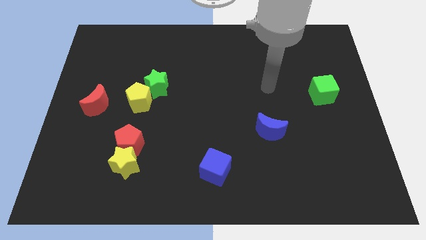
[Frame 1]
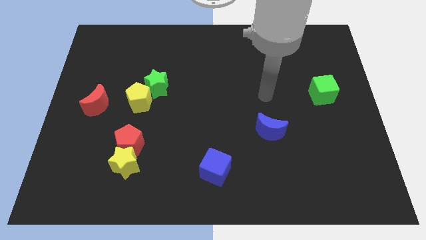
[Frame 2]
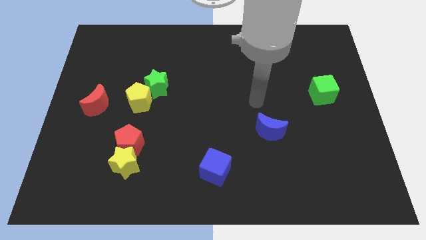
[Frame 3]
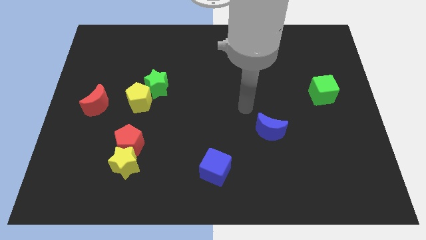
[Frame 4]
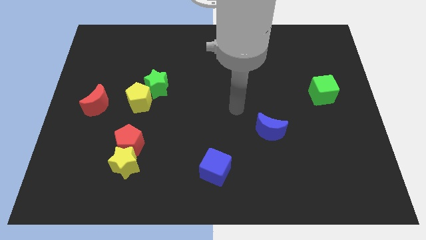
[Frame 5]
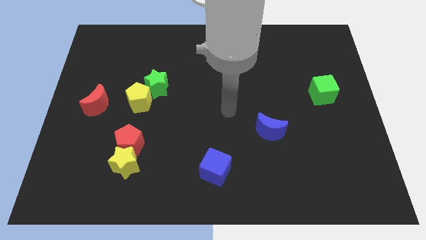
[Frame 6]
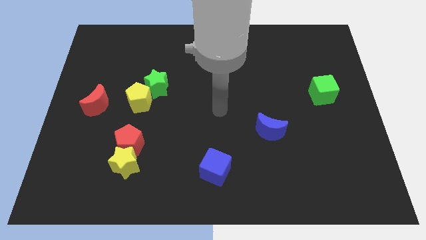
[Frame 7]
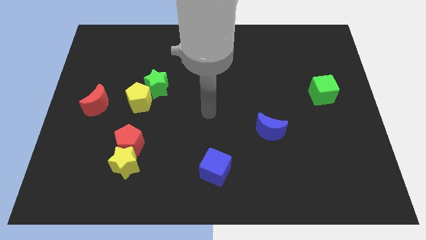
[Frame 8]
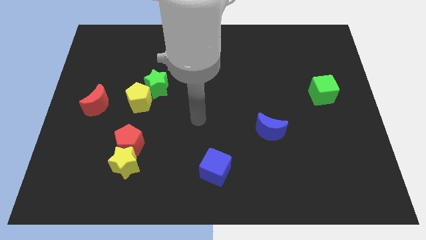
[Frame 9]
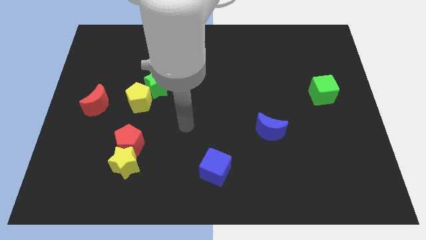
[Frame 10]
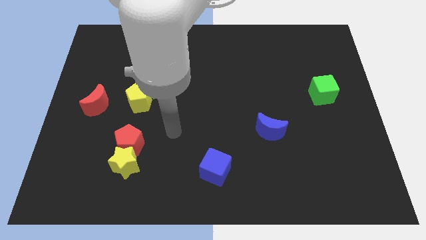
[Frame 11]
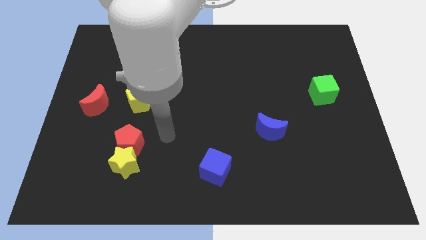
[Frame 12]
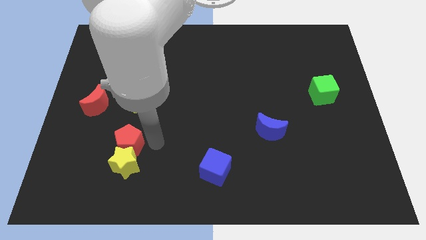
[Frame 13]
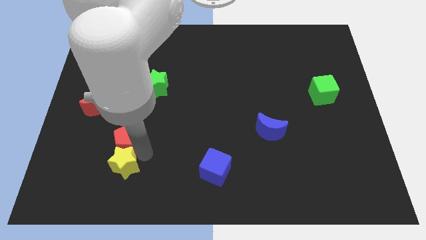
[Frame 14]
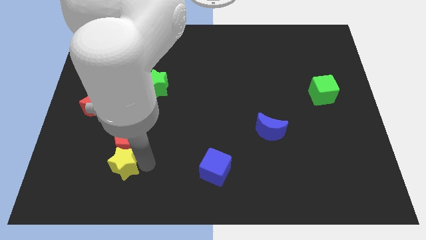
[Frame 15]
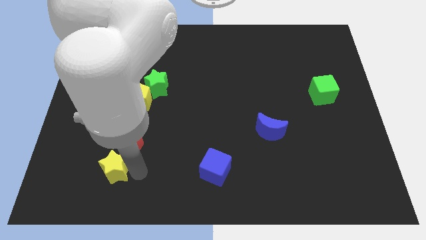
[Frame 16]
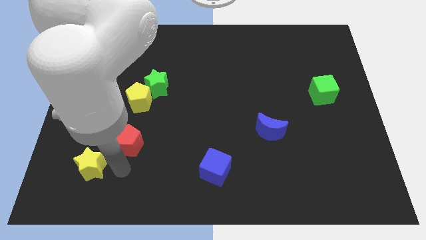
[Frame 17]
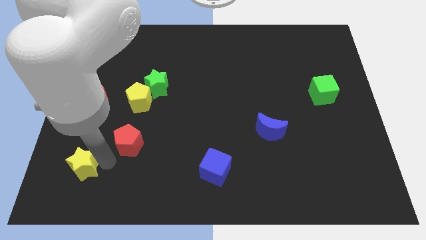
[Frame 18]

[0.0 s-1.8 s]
pull the red pentagon apart from the yellow star

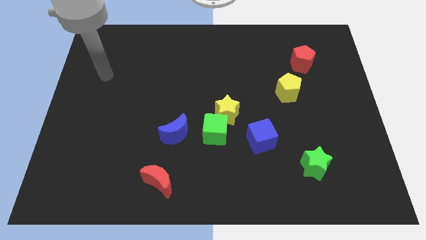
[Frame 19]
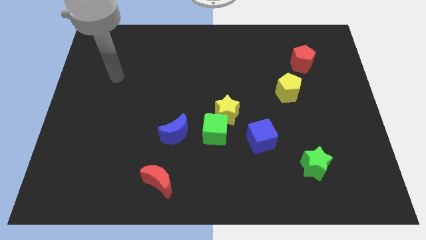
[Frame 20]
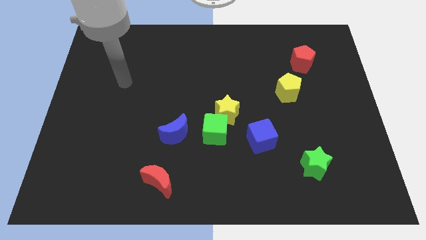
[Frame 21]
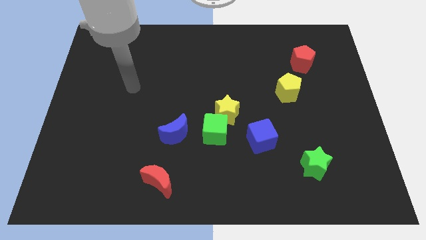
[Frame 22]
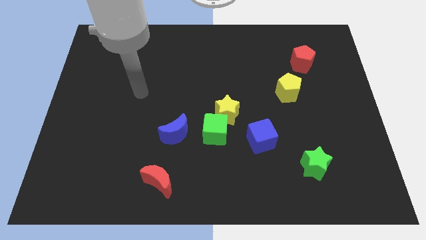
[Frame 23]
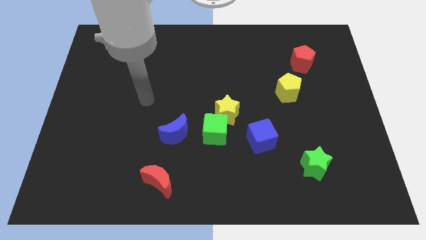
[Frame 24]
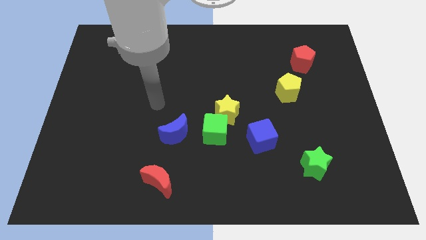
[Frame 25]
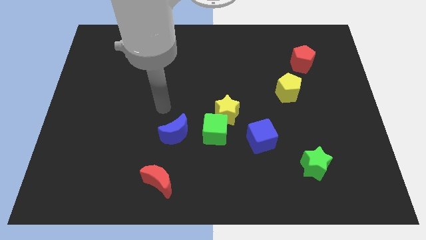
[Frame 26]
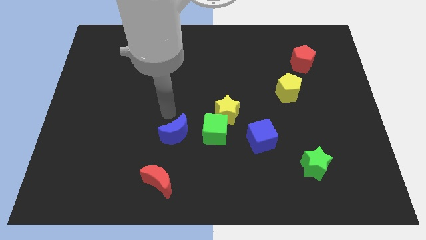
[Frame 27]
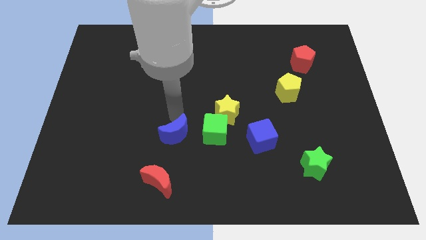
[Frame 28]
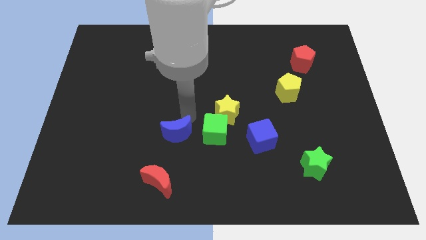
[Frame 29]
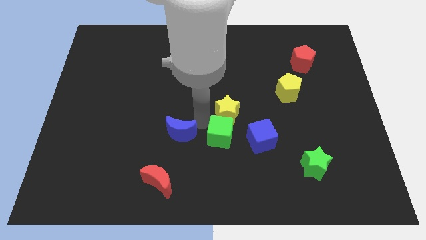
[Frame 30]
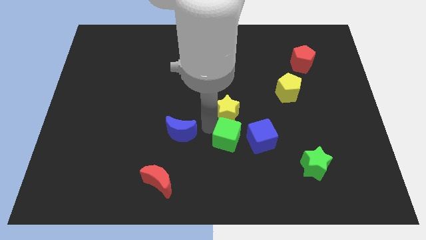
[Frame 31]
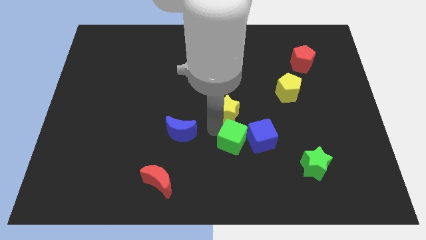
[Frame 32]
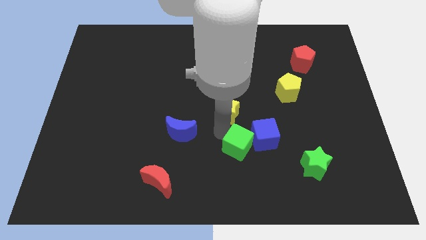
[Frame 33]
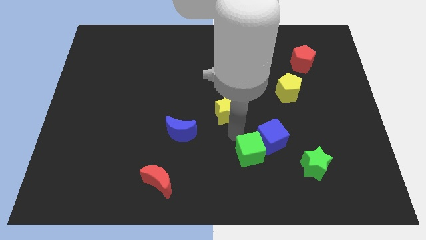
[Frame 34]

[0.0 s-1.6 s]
pull the yellow star apart from the green cube and blue cube

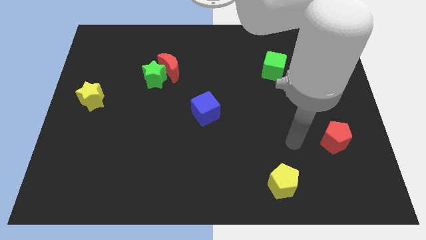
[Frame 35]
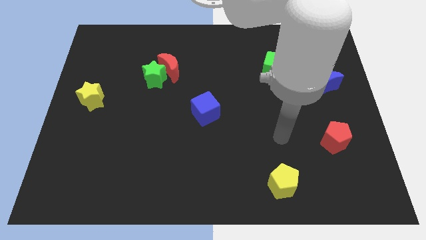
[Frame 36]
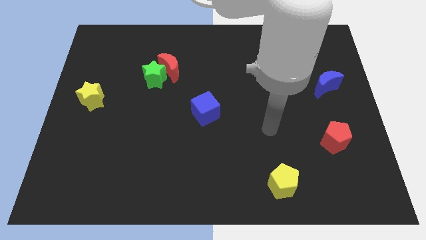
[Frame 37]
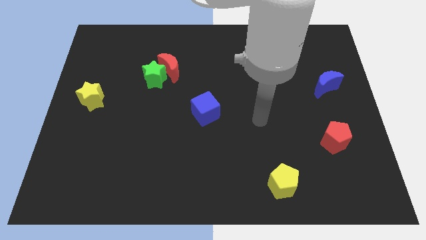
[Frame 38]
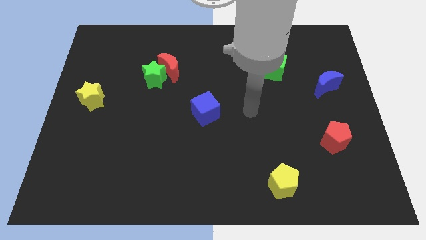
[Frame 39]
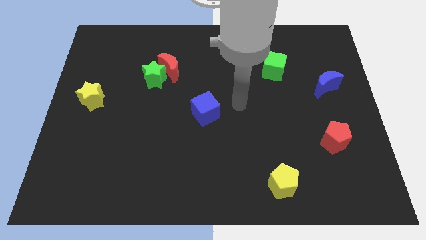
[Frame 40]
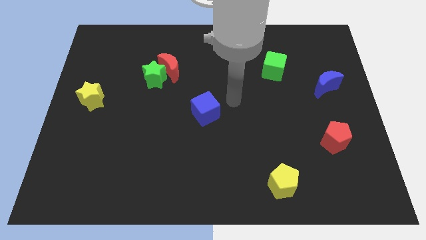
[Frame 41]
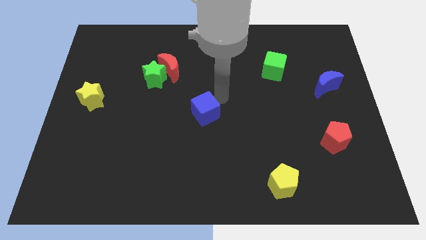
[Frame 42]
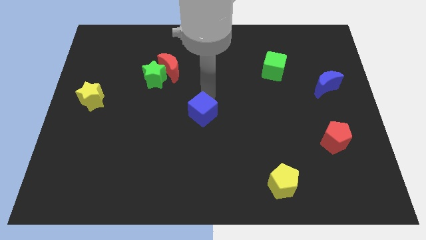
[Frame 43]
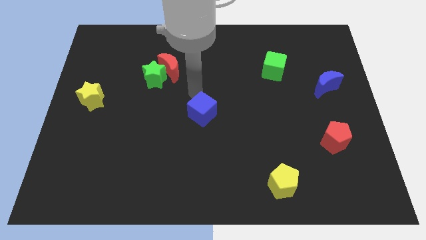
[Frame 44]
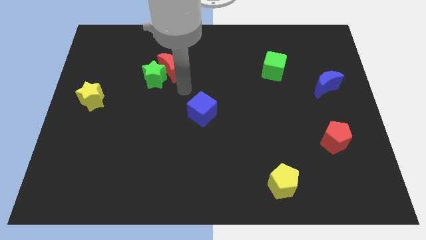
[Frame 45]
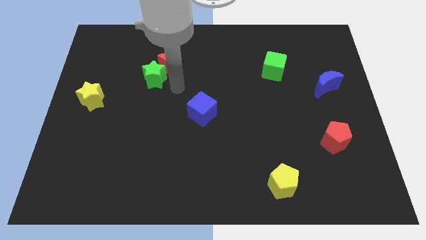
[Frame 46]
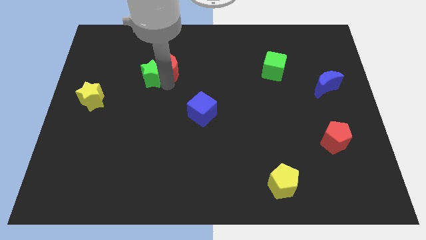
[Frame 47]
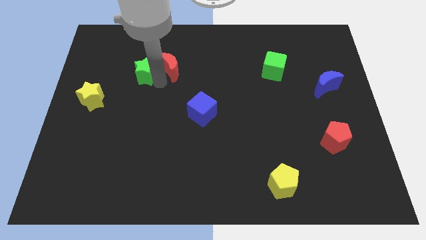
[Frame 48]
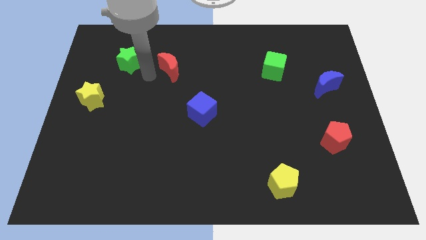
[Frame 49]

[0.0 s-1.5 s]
move the red moon away from the green star

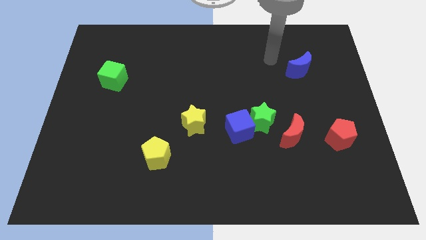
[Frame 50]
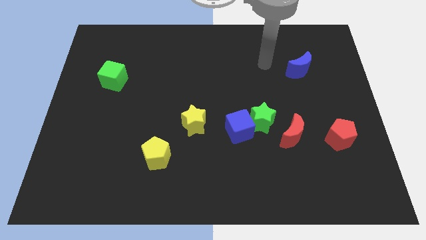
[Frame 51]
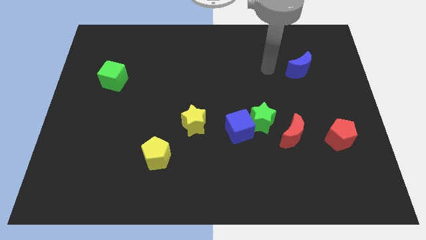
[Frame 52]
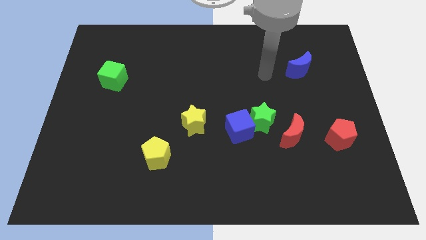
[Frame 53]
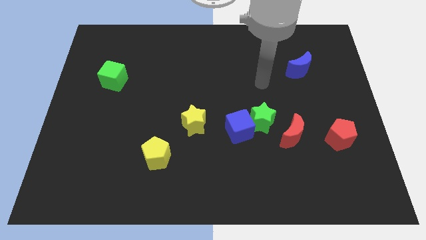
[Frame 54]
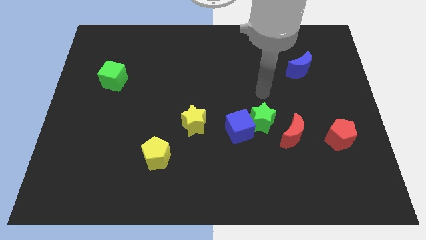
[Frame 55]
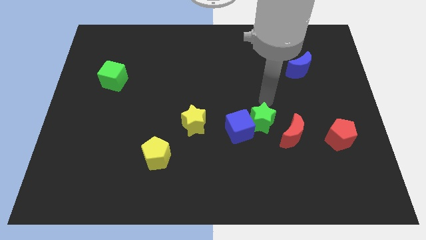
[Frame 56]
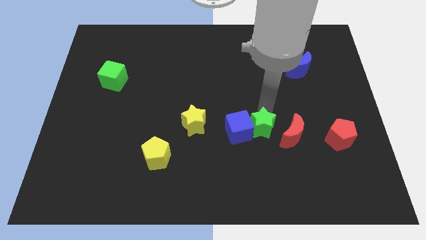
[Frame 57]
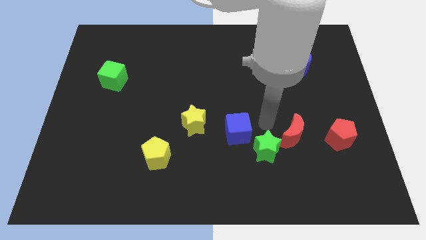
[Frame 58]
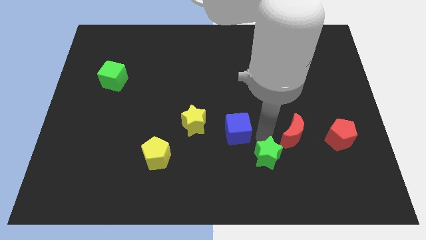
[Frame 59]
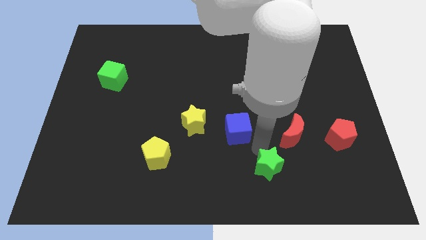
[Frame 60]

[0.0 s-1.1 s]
separate the blue cube from the green star

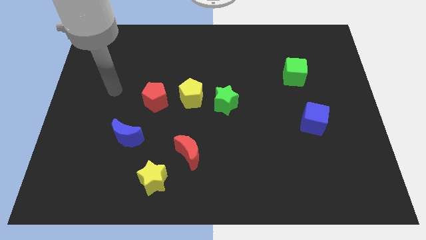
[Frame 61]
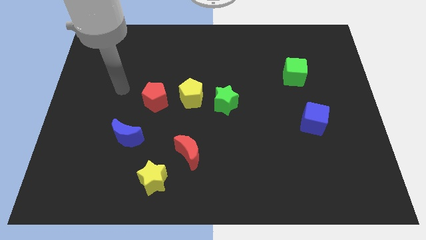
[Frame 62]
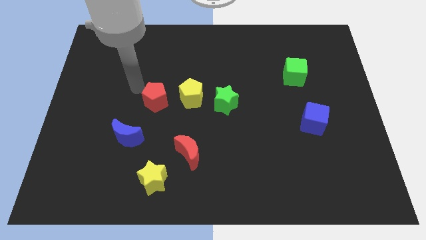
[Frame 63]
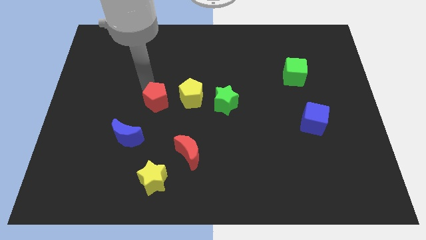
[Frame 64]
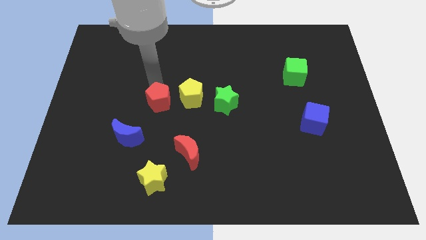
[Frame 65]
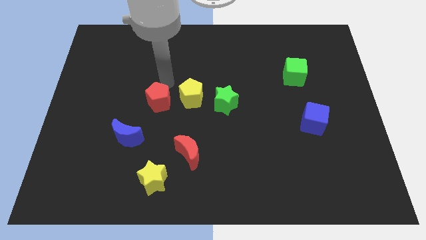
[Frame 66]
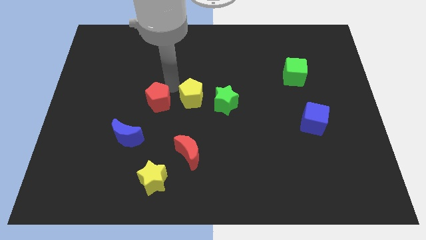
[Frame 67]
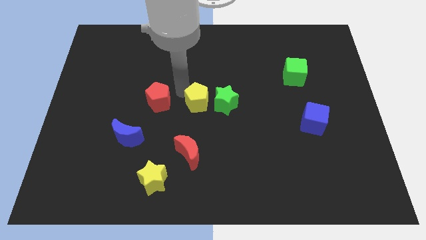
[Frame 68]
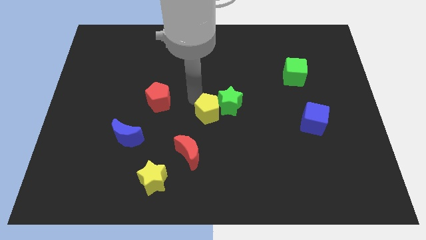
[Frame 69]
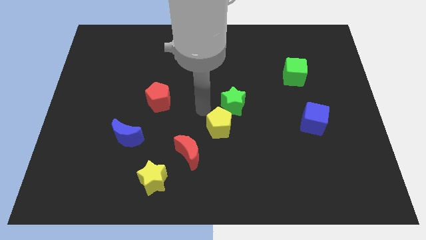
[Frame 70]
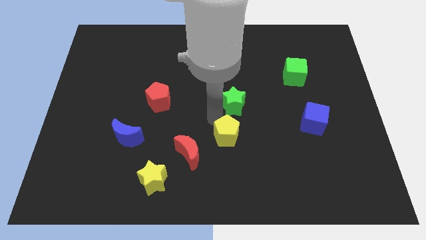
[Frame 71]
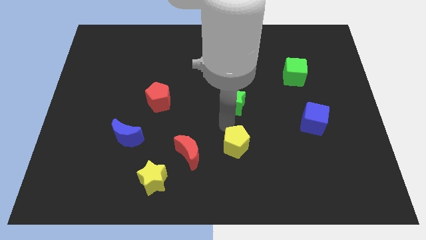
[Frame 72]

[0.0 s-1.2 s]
separate the green star from the yellow pentagon

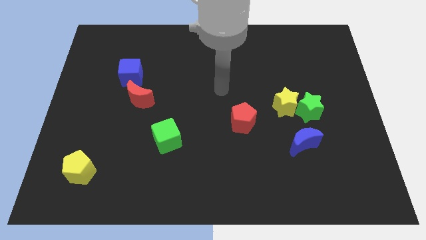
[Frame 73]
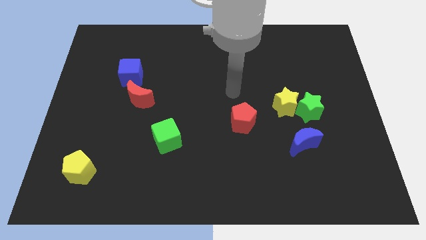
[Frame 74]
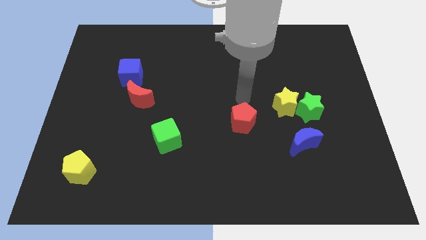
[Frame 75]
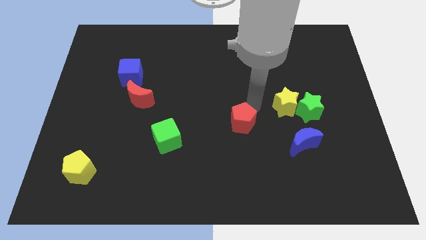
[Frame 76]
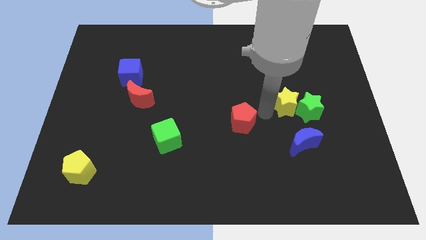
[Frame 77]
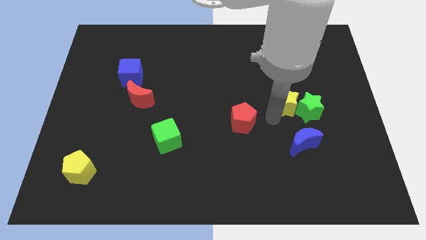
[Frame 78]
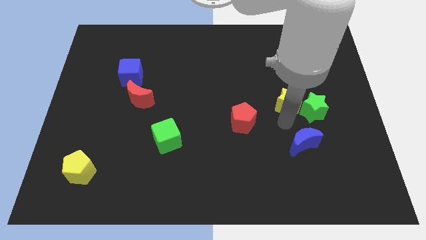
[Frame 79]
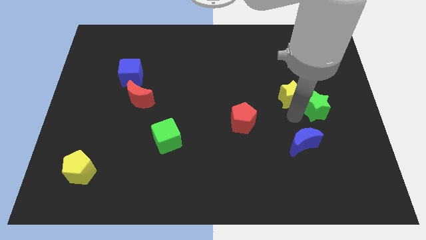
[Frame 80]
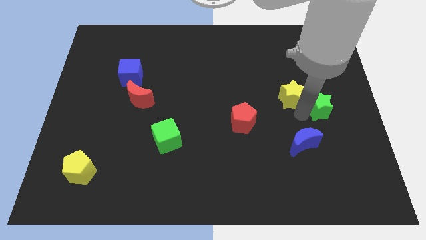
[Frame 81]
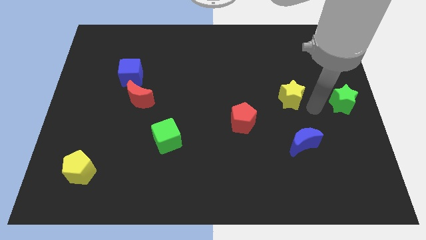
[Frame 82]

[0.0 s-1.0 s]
separate the yellow star from the green star

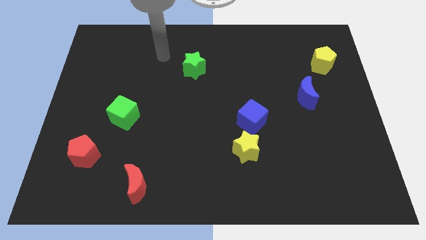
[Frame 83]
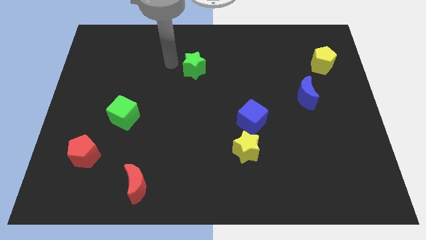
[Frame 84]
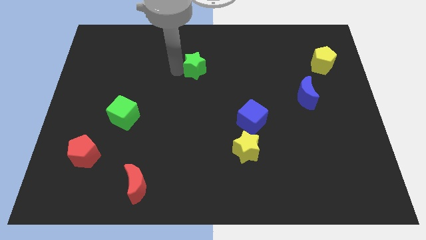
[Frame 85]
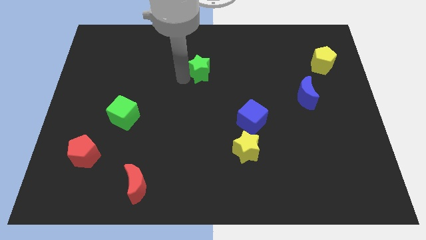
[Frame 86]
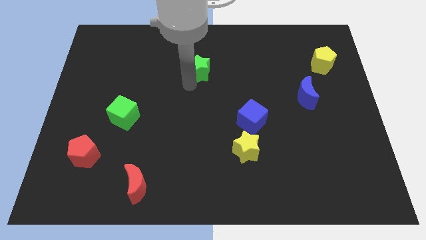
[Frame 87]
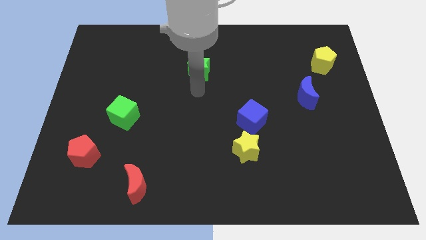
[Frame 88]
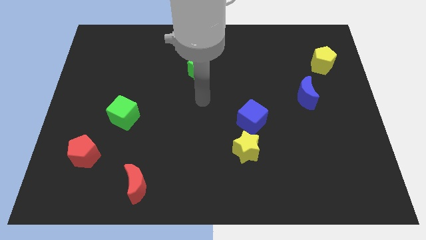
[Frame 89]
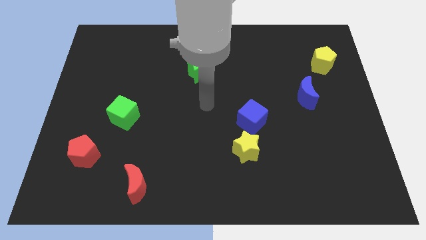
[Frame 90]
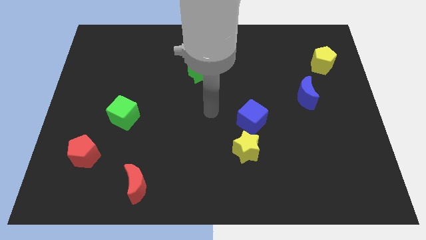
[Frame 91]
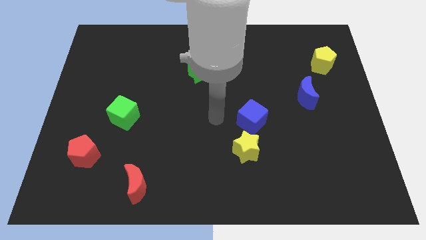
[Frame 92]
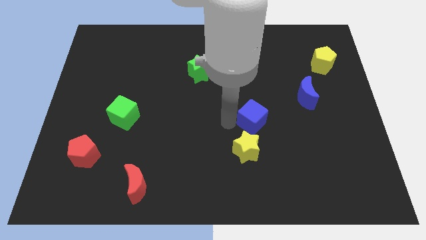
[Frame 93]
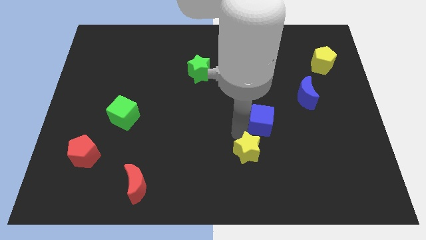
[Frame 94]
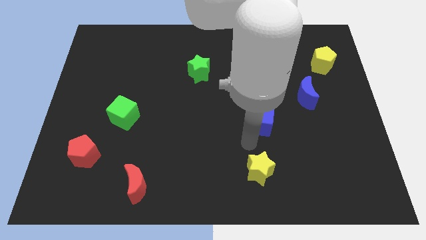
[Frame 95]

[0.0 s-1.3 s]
separate the blue cube from the yellow star
